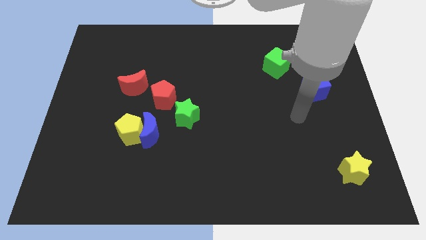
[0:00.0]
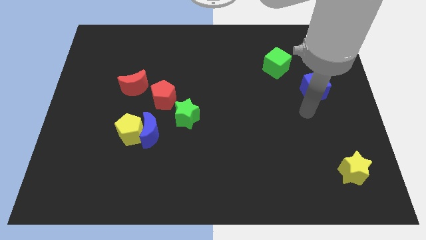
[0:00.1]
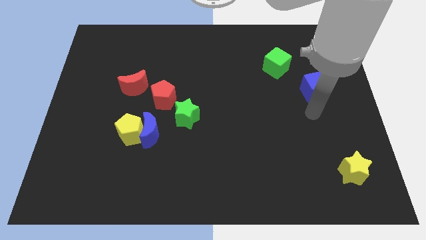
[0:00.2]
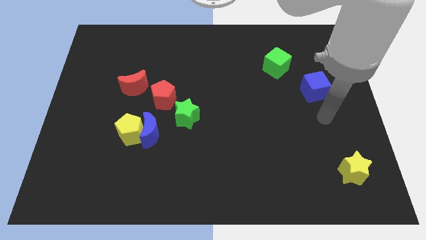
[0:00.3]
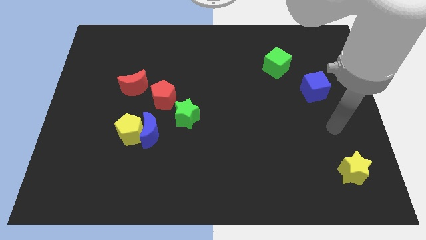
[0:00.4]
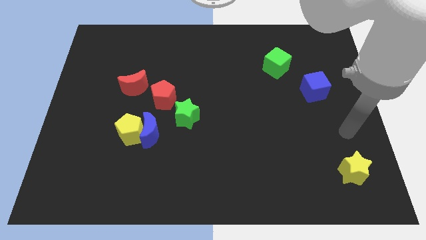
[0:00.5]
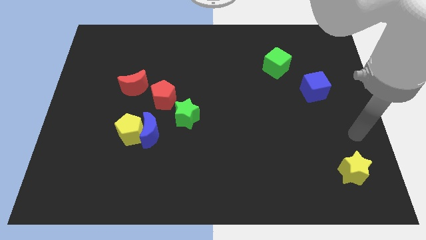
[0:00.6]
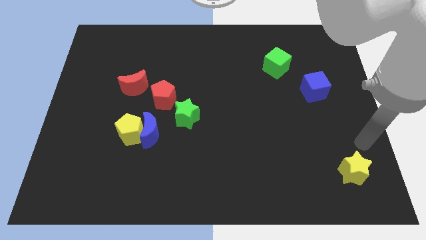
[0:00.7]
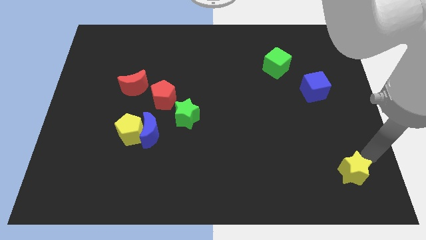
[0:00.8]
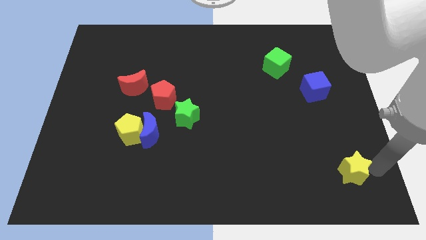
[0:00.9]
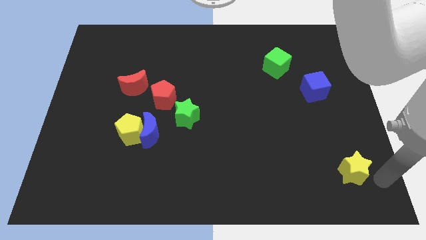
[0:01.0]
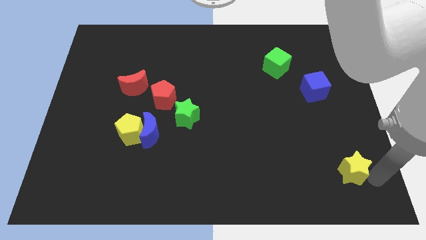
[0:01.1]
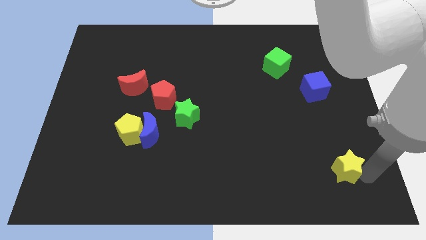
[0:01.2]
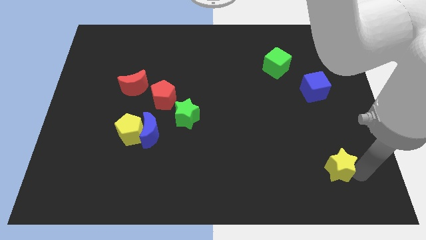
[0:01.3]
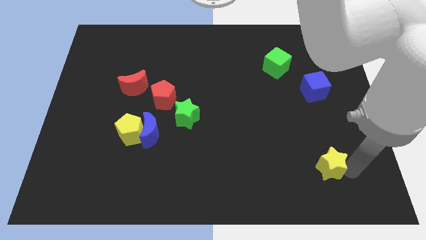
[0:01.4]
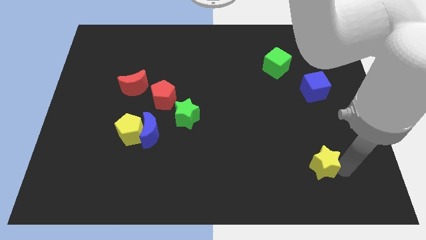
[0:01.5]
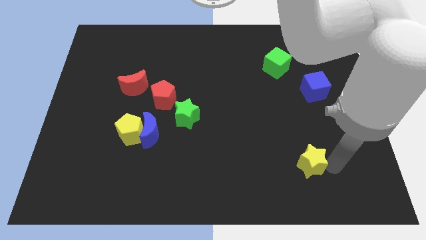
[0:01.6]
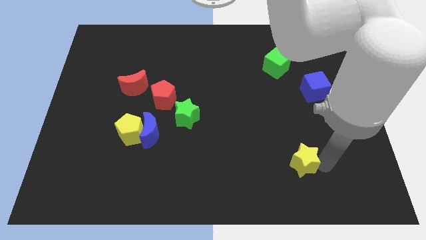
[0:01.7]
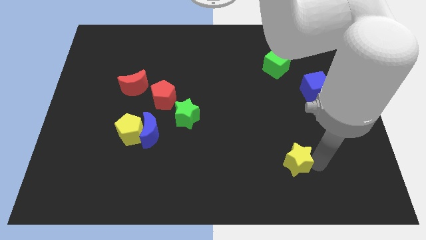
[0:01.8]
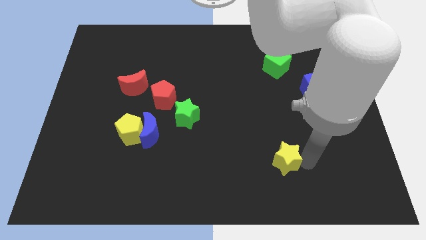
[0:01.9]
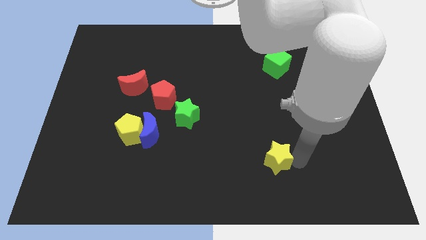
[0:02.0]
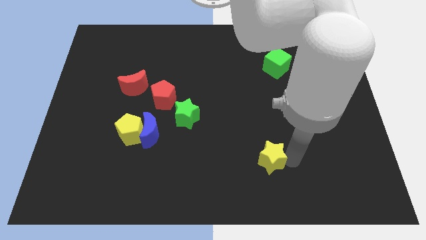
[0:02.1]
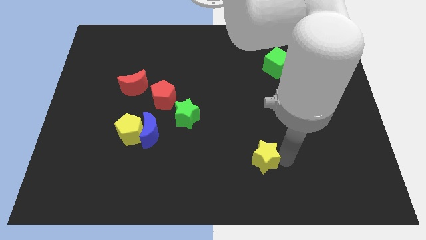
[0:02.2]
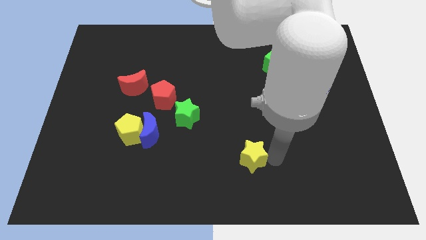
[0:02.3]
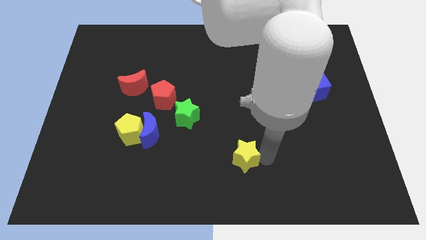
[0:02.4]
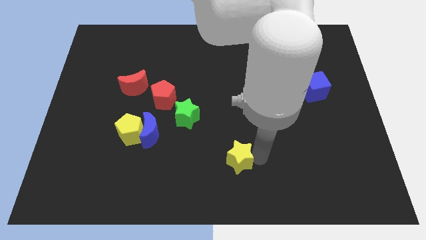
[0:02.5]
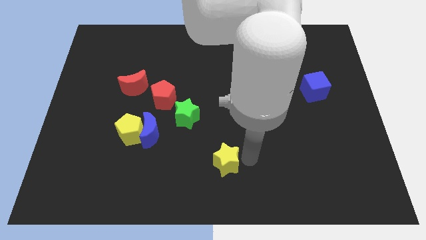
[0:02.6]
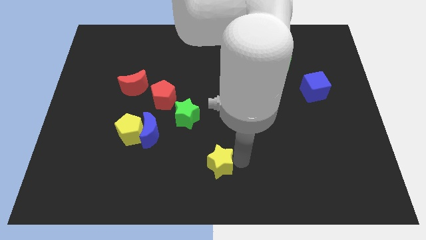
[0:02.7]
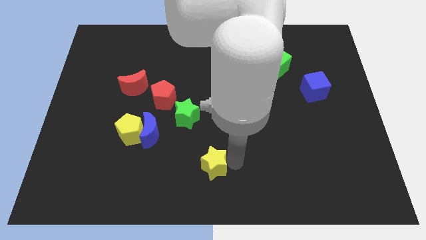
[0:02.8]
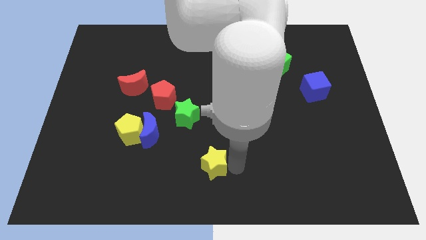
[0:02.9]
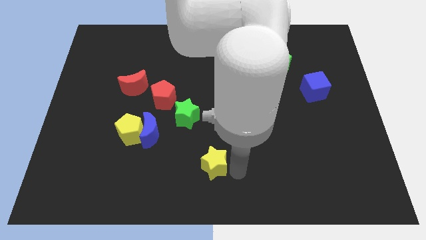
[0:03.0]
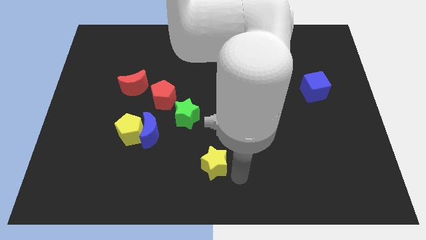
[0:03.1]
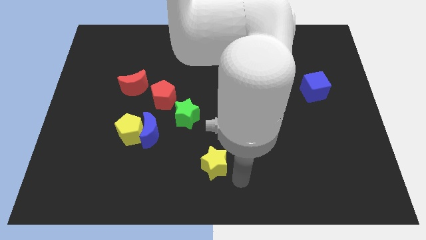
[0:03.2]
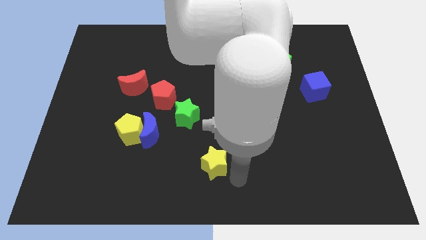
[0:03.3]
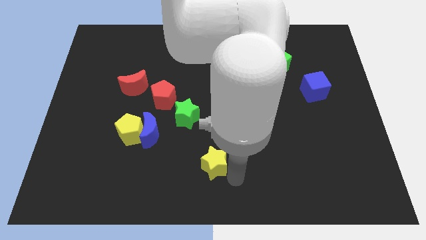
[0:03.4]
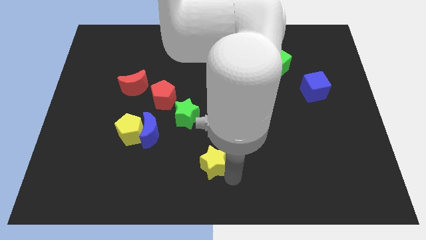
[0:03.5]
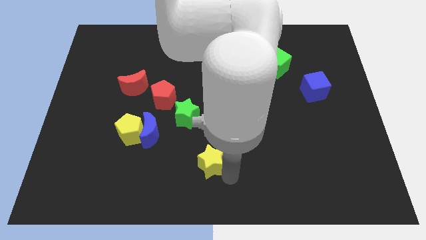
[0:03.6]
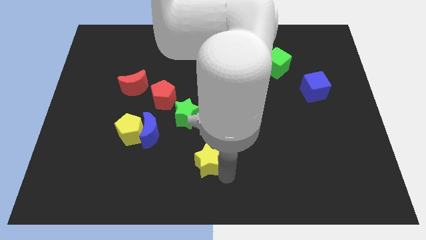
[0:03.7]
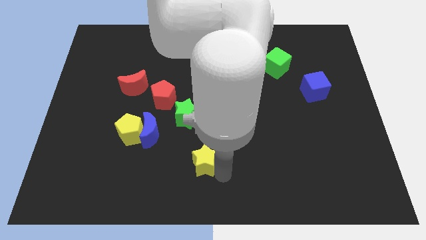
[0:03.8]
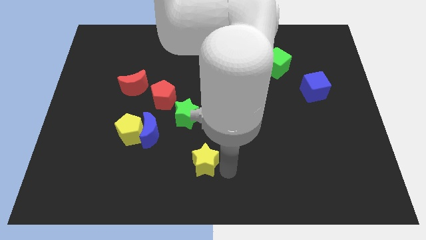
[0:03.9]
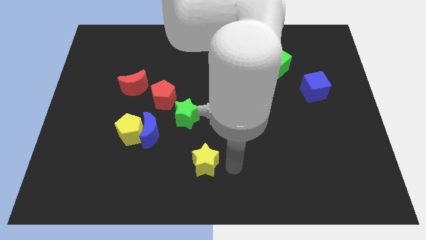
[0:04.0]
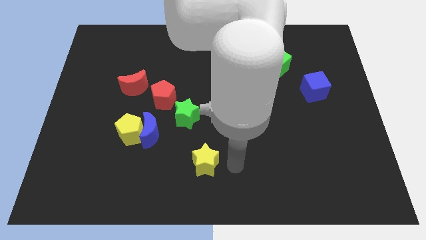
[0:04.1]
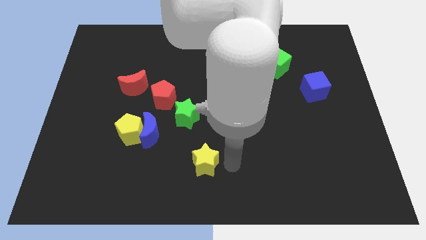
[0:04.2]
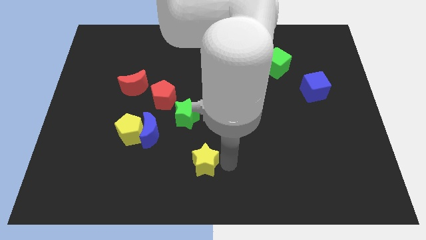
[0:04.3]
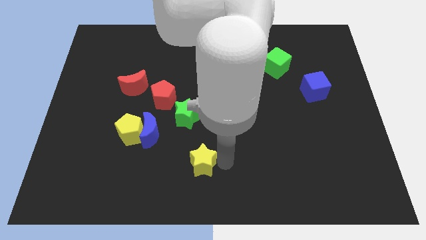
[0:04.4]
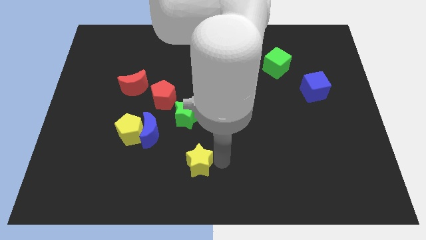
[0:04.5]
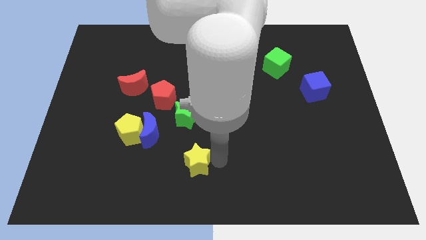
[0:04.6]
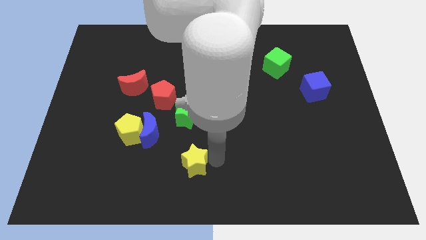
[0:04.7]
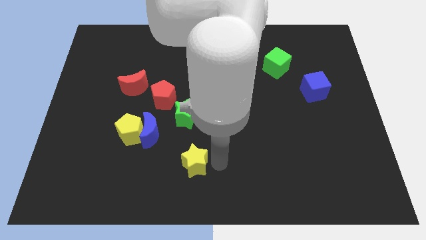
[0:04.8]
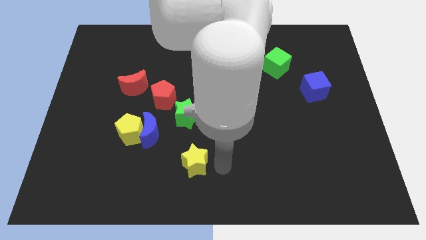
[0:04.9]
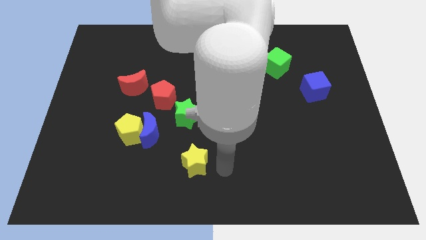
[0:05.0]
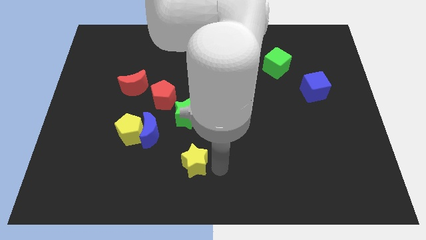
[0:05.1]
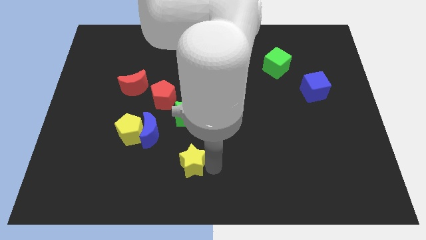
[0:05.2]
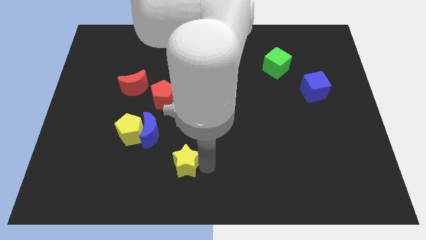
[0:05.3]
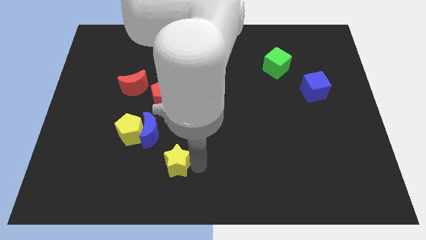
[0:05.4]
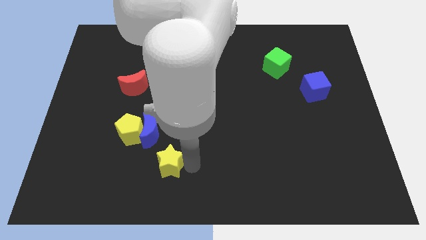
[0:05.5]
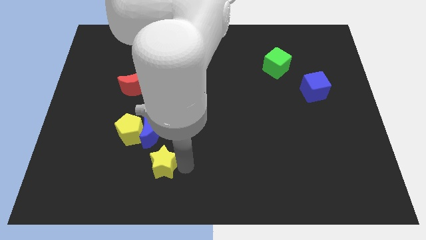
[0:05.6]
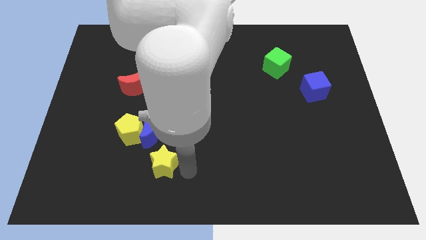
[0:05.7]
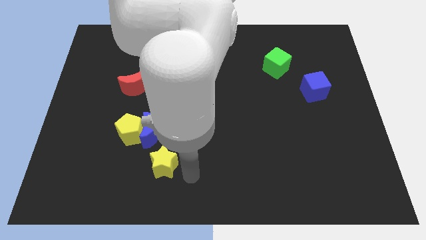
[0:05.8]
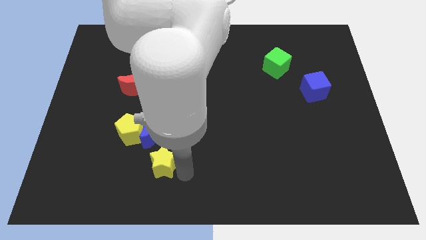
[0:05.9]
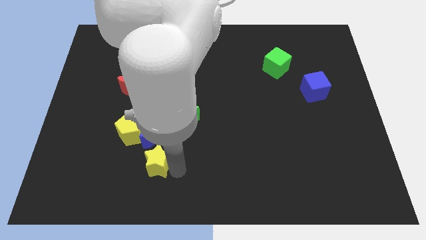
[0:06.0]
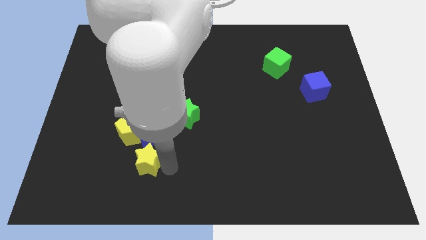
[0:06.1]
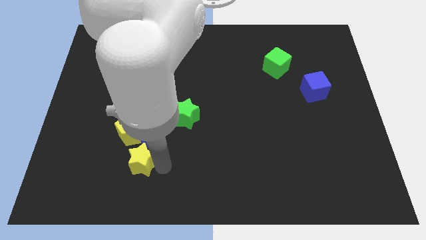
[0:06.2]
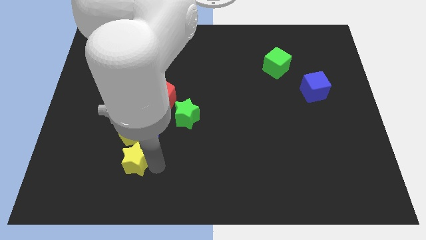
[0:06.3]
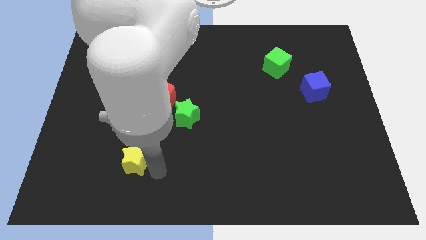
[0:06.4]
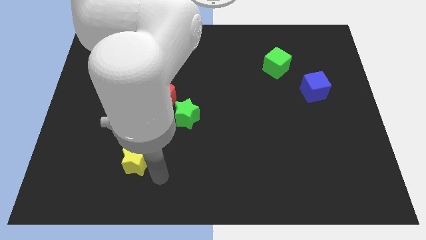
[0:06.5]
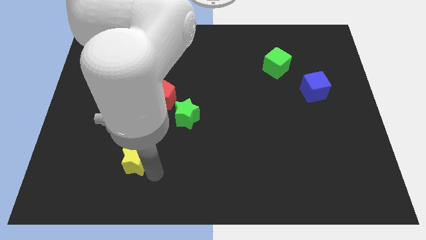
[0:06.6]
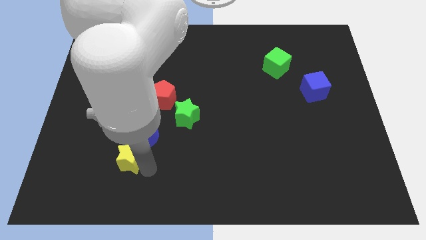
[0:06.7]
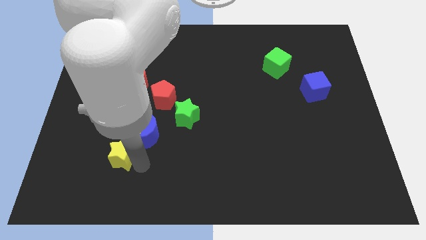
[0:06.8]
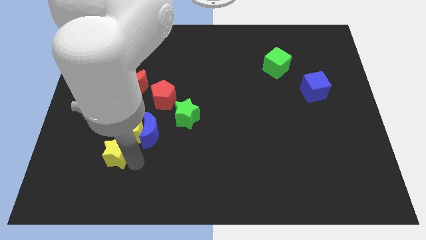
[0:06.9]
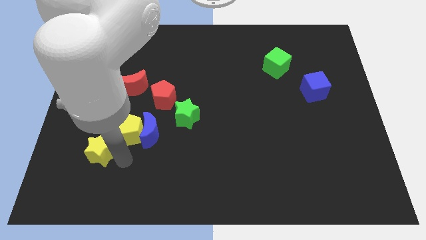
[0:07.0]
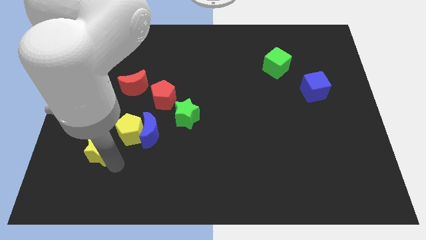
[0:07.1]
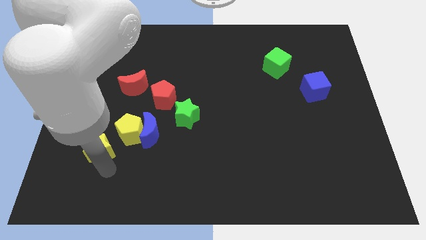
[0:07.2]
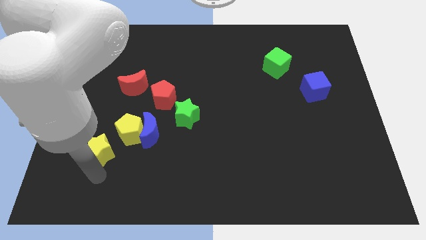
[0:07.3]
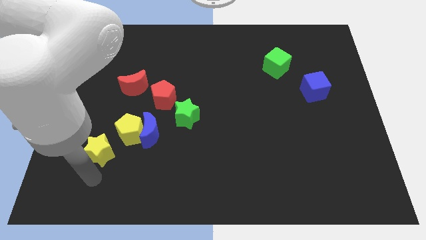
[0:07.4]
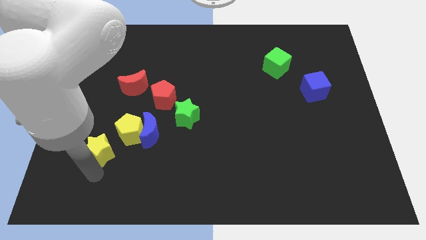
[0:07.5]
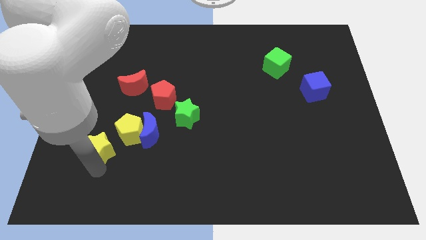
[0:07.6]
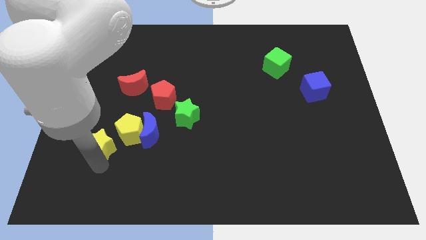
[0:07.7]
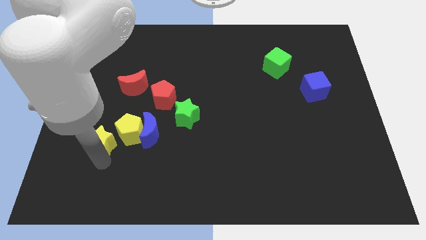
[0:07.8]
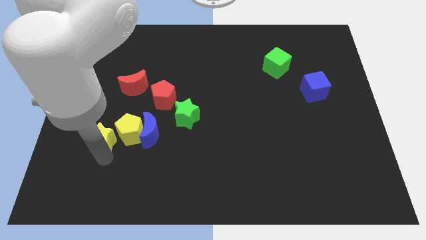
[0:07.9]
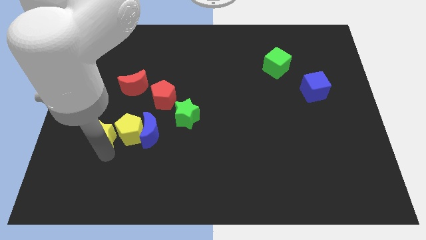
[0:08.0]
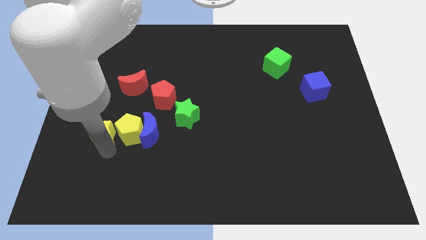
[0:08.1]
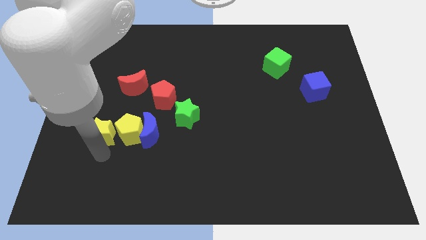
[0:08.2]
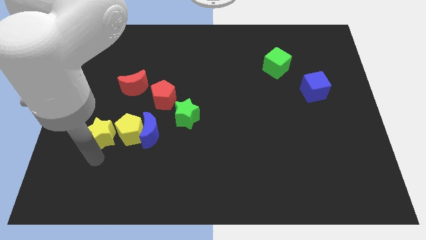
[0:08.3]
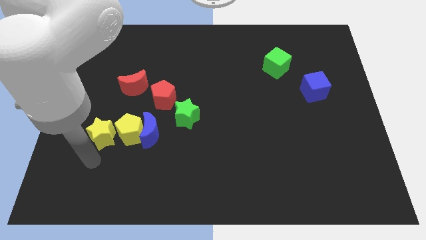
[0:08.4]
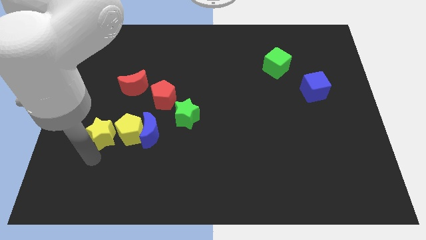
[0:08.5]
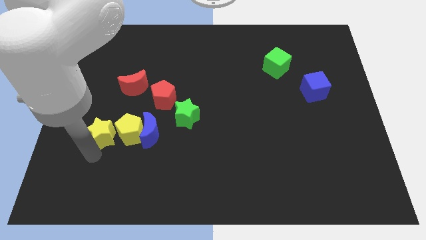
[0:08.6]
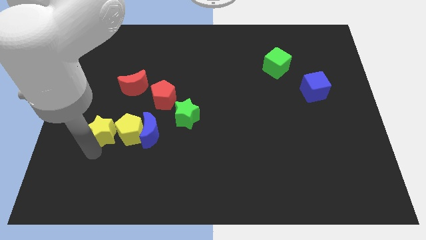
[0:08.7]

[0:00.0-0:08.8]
put the yellow star to the top left side of the yellow pentagon
